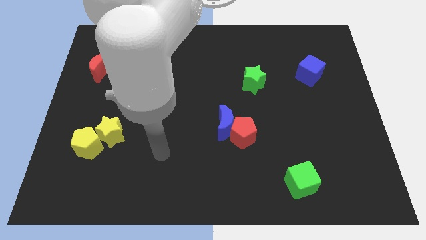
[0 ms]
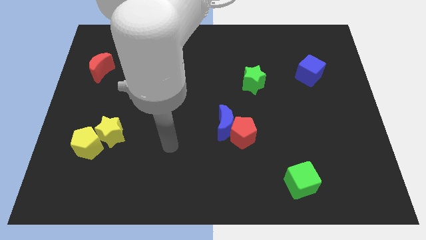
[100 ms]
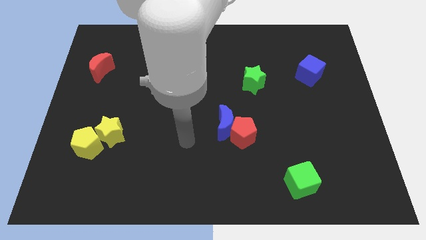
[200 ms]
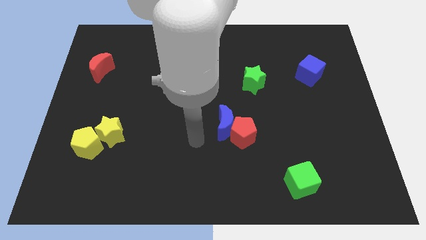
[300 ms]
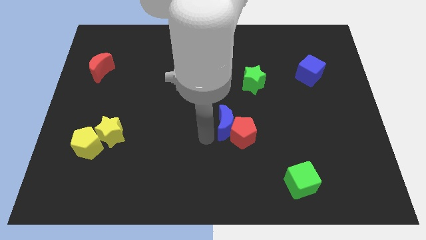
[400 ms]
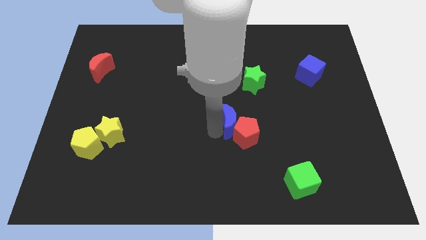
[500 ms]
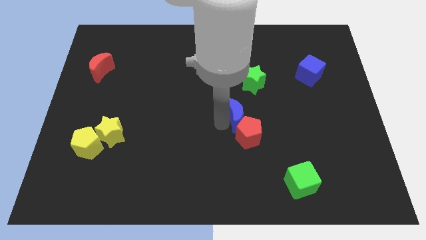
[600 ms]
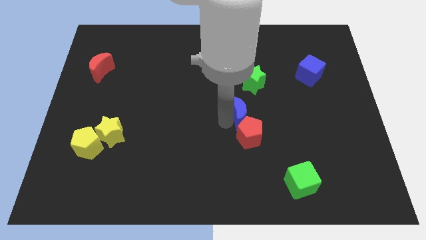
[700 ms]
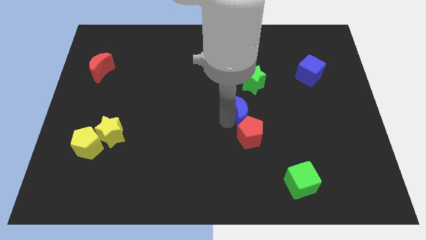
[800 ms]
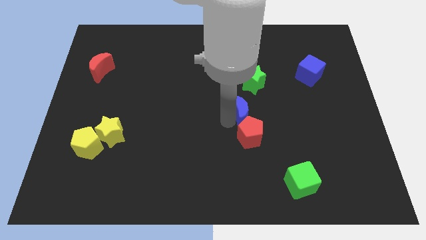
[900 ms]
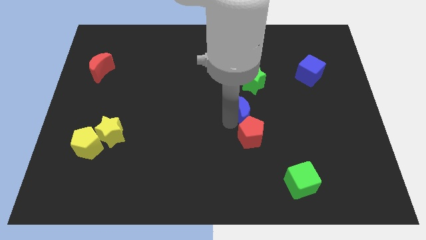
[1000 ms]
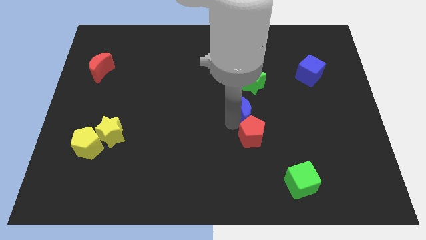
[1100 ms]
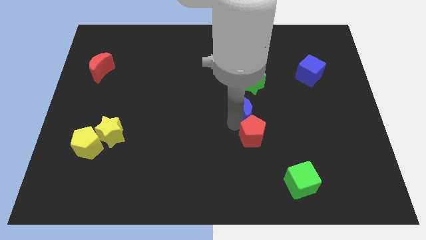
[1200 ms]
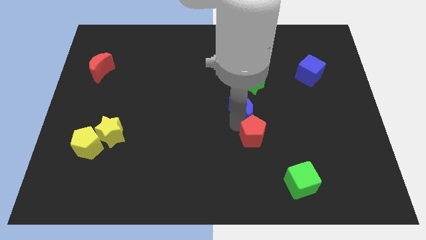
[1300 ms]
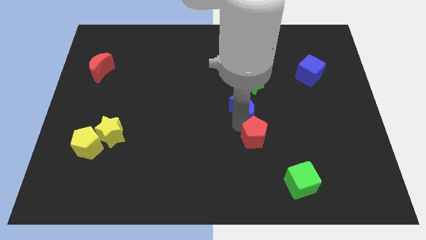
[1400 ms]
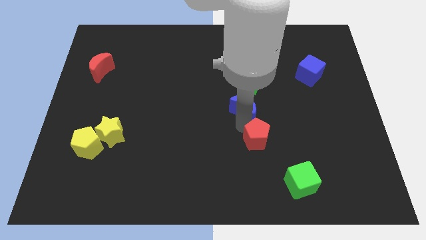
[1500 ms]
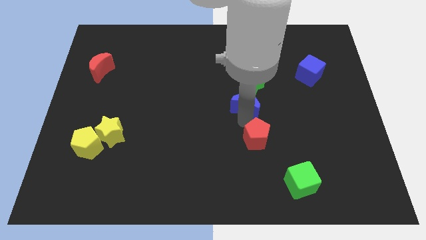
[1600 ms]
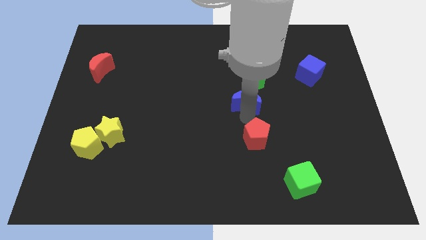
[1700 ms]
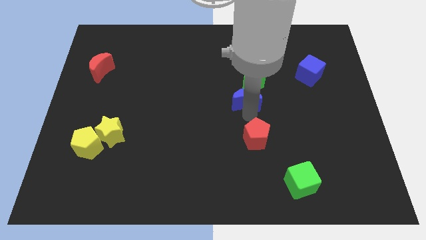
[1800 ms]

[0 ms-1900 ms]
move the red pentagon away from the blue moon

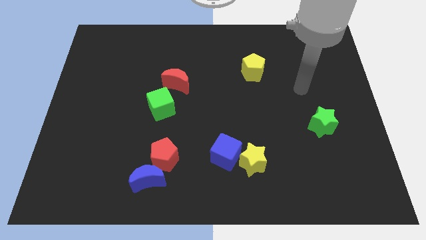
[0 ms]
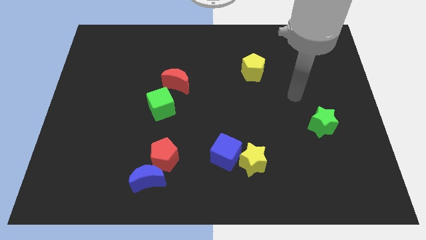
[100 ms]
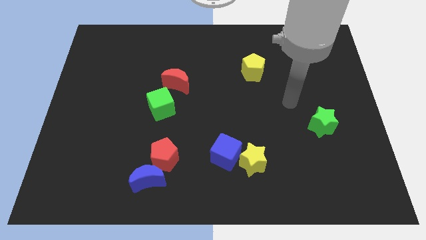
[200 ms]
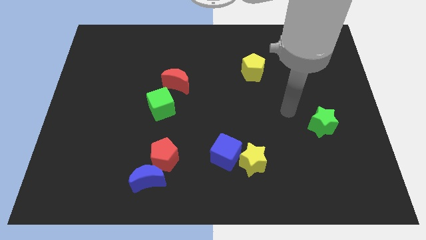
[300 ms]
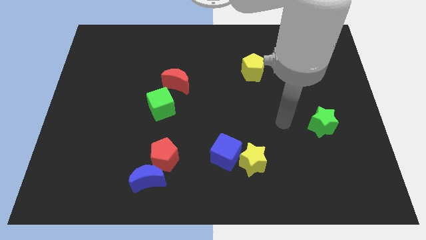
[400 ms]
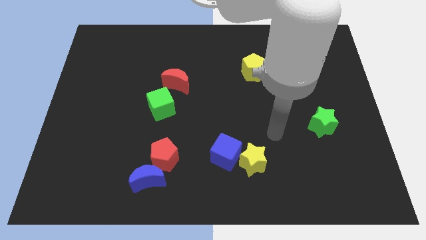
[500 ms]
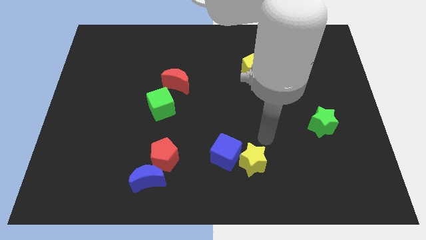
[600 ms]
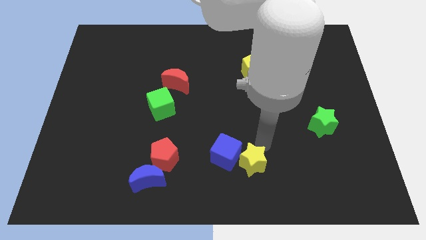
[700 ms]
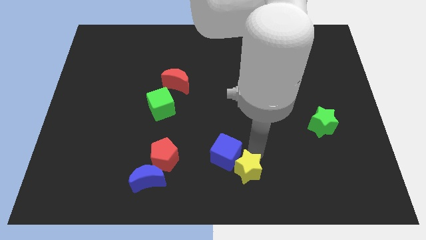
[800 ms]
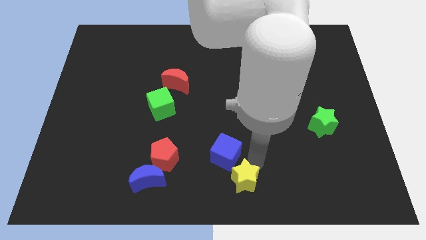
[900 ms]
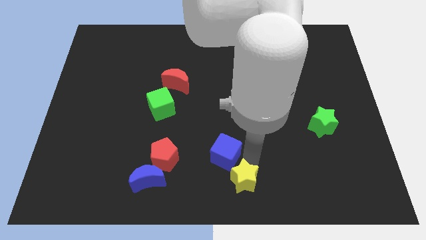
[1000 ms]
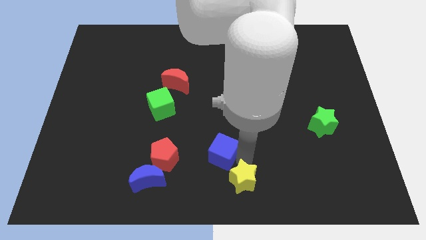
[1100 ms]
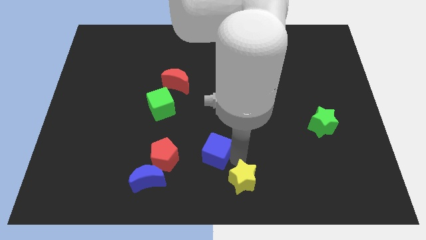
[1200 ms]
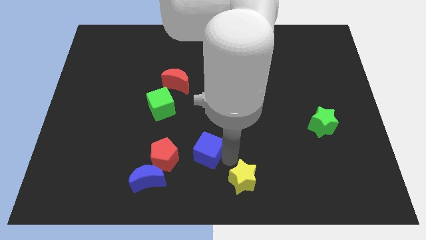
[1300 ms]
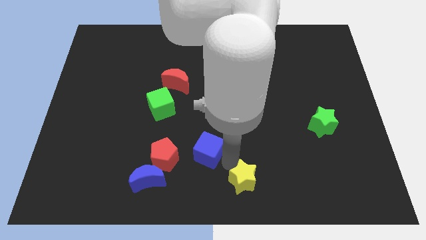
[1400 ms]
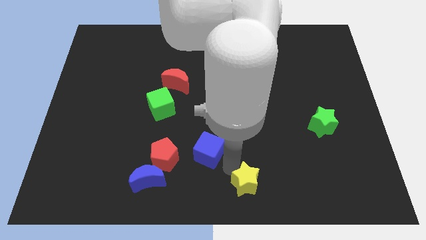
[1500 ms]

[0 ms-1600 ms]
move the blue cube away from the yellow star

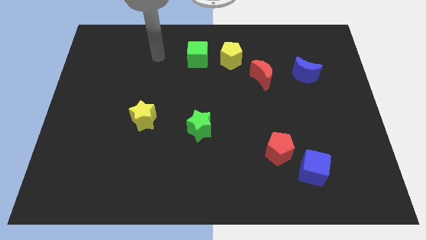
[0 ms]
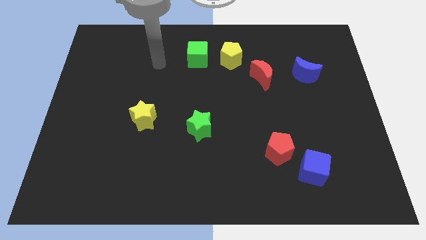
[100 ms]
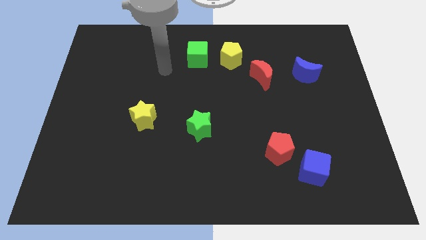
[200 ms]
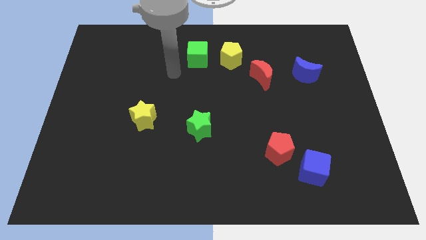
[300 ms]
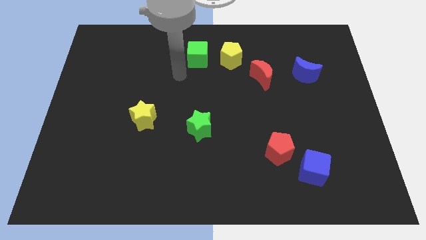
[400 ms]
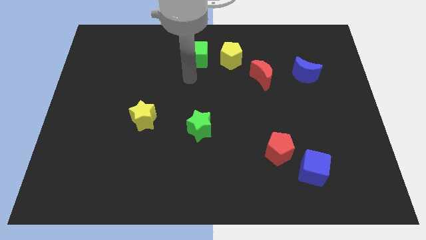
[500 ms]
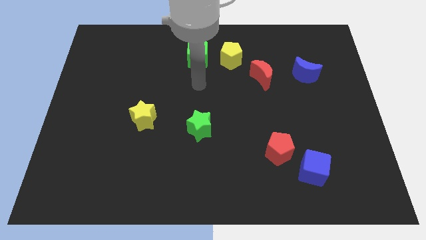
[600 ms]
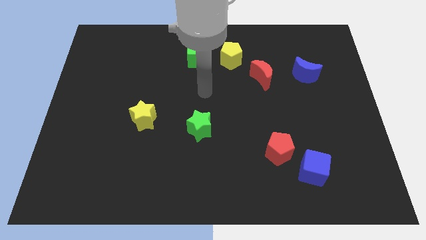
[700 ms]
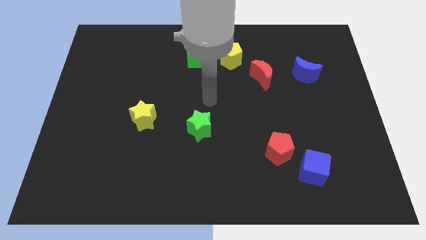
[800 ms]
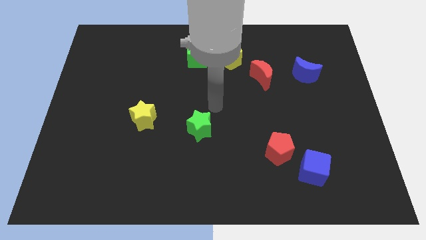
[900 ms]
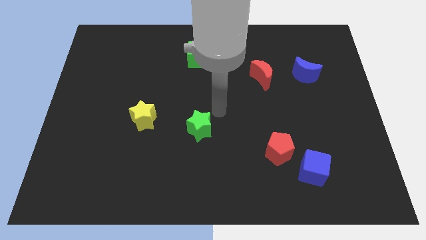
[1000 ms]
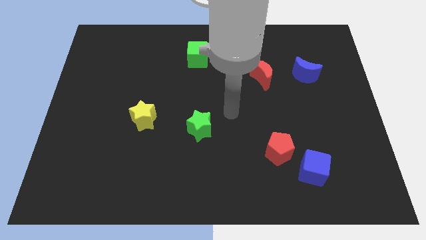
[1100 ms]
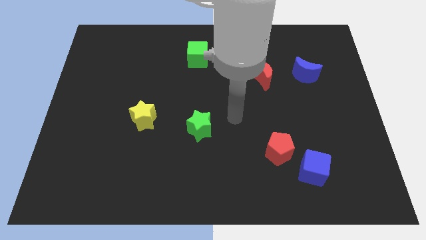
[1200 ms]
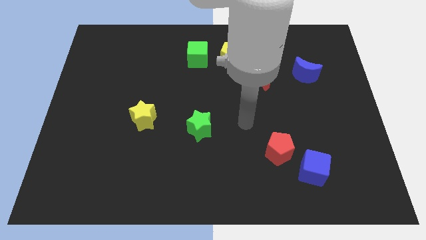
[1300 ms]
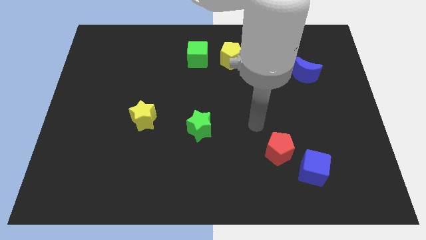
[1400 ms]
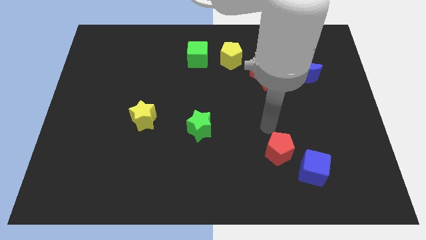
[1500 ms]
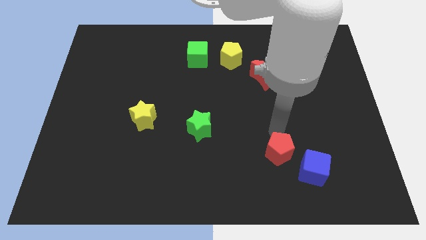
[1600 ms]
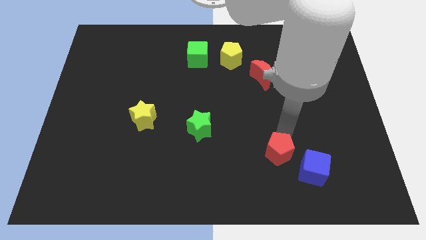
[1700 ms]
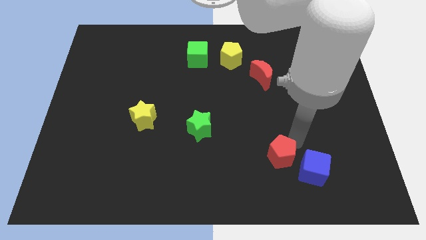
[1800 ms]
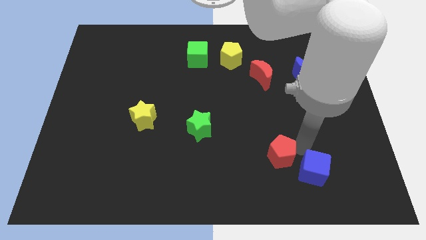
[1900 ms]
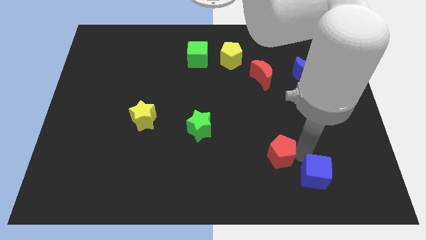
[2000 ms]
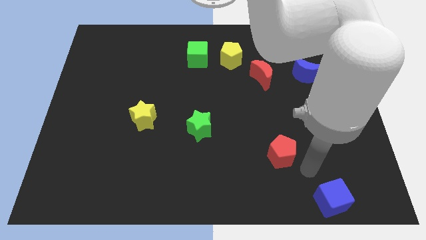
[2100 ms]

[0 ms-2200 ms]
pull the red pentagon apart from the blue cube

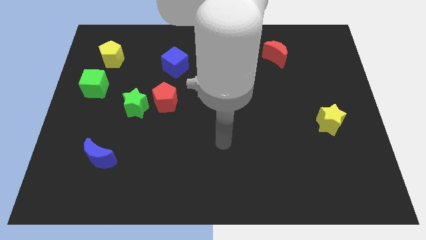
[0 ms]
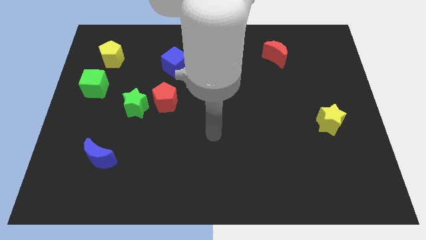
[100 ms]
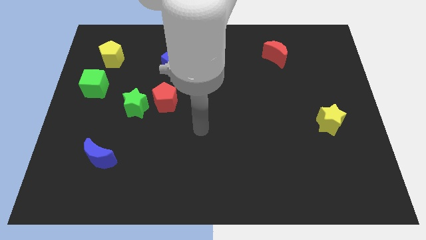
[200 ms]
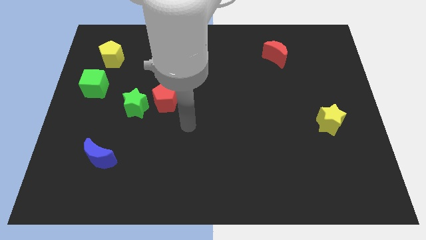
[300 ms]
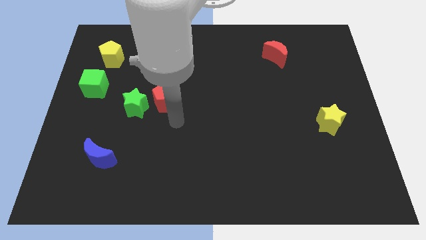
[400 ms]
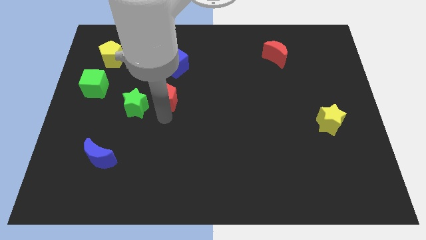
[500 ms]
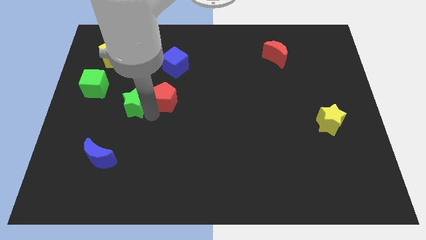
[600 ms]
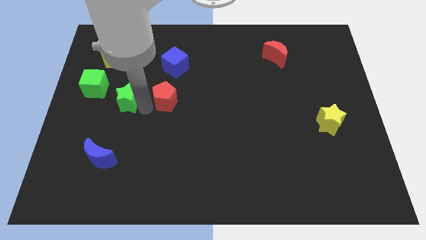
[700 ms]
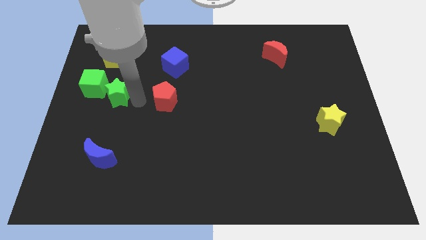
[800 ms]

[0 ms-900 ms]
pull the red pentagon apart from the green star

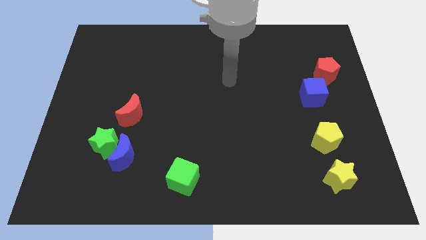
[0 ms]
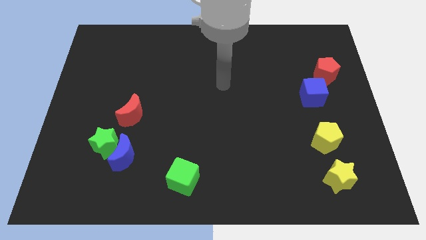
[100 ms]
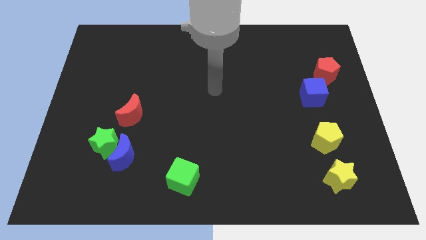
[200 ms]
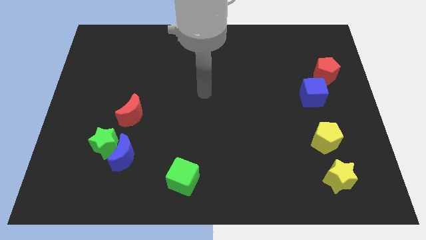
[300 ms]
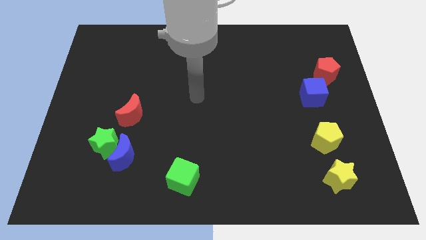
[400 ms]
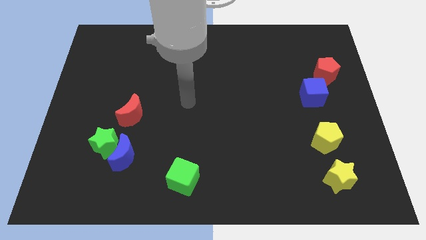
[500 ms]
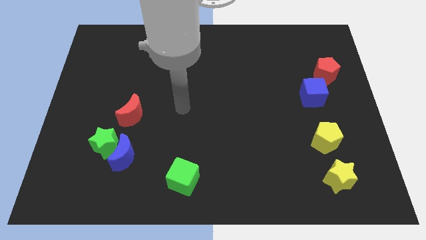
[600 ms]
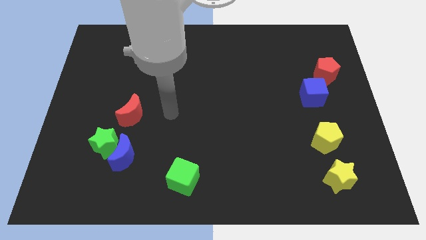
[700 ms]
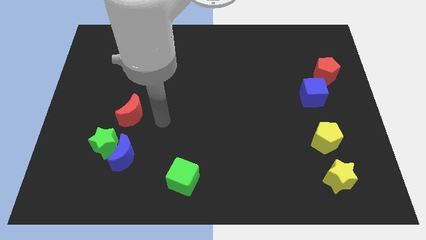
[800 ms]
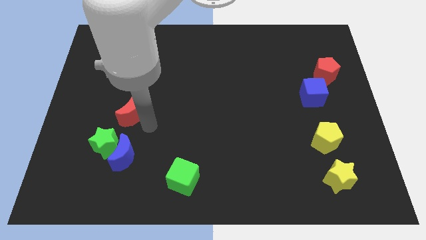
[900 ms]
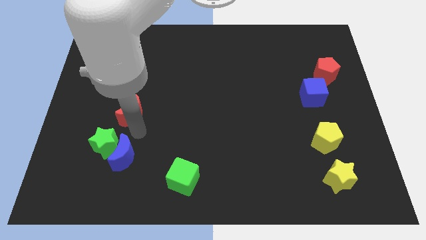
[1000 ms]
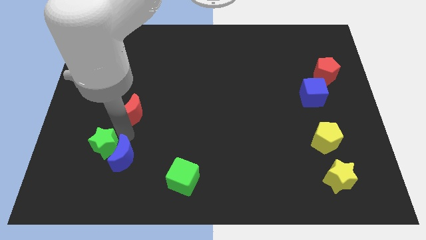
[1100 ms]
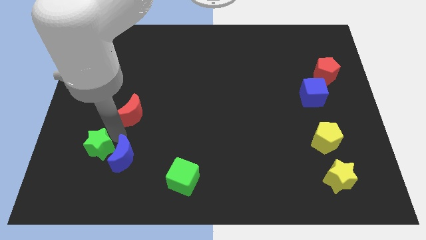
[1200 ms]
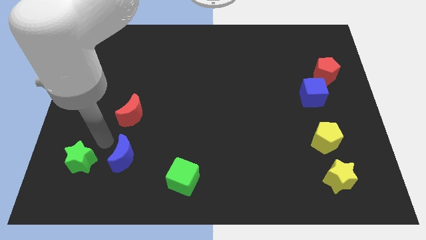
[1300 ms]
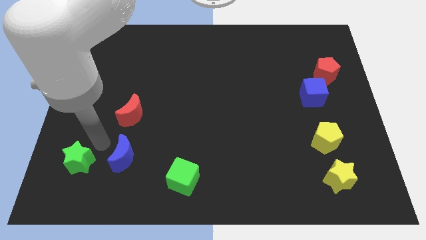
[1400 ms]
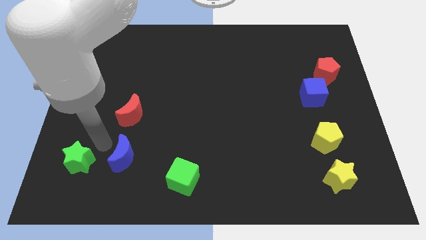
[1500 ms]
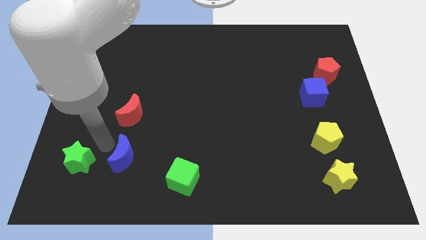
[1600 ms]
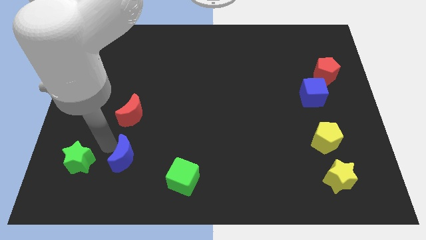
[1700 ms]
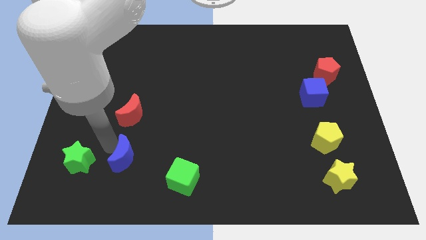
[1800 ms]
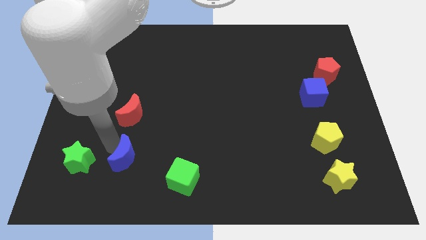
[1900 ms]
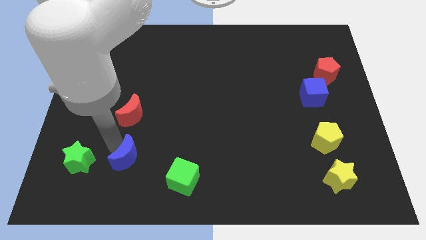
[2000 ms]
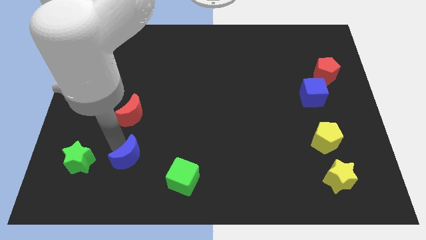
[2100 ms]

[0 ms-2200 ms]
pull the blue moon apart from the green star

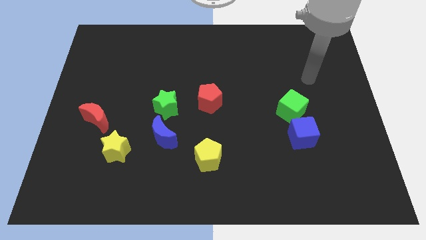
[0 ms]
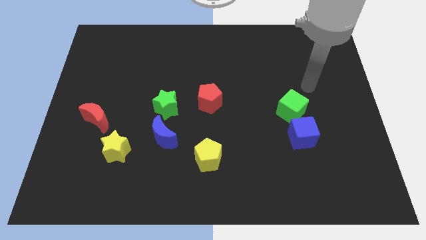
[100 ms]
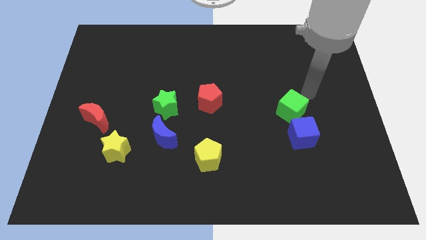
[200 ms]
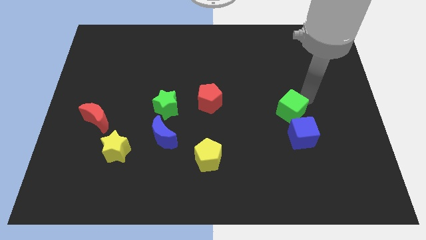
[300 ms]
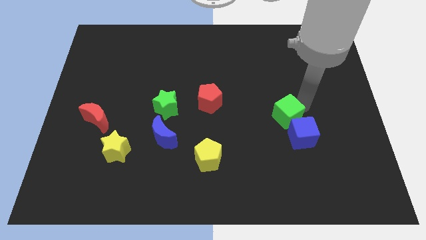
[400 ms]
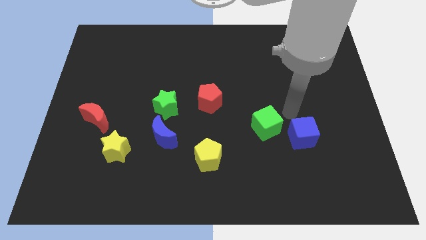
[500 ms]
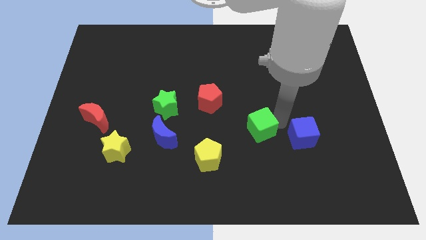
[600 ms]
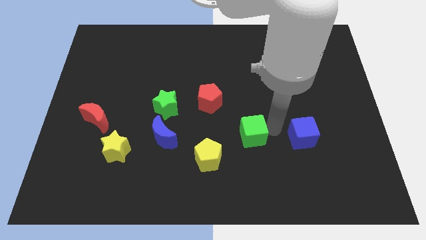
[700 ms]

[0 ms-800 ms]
move the blue cube away from the green cube
